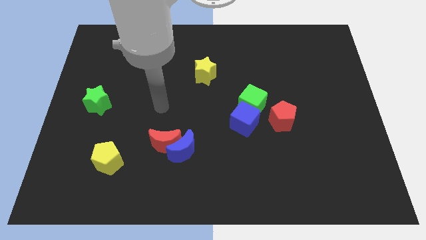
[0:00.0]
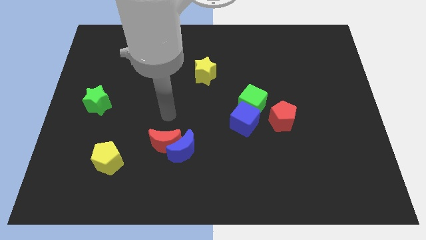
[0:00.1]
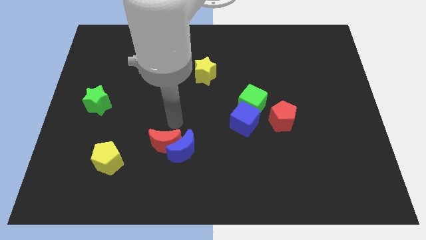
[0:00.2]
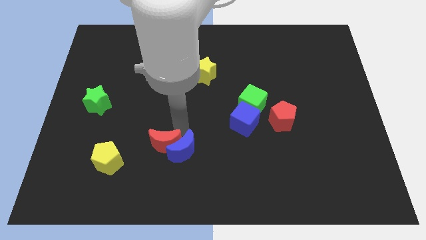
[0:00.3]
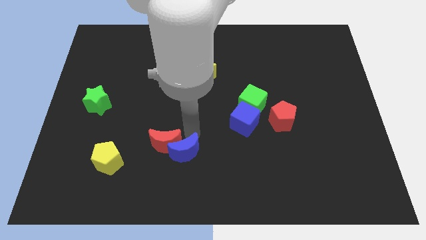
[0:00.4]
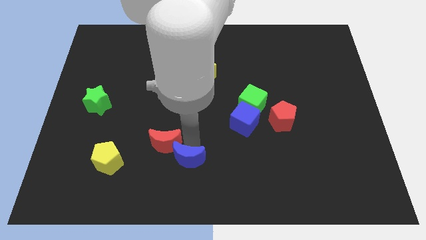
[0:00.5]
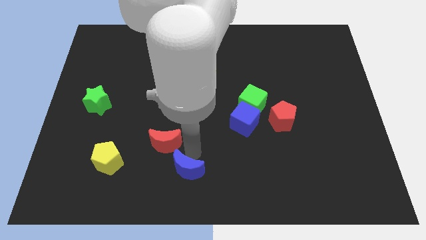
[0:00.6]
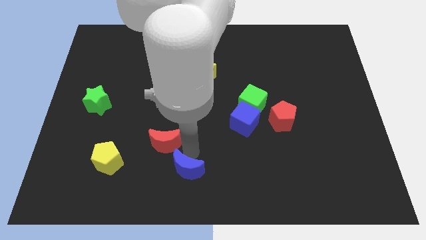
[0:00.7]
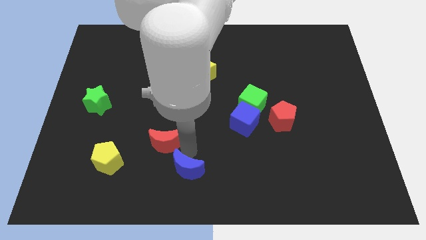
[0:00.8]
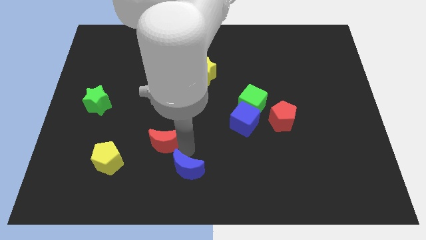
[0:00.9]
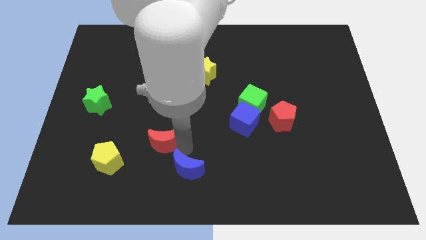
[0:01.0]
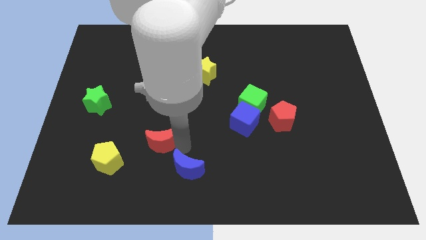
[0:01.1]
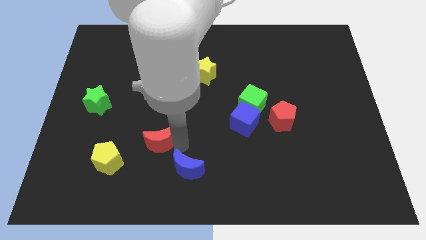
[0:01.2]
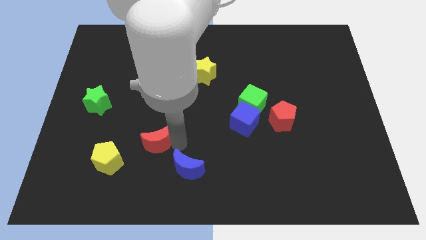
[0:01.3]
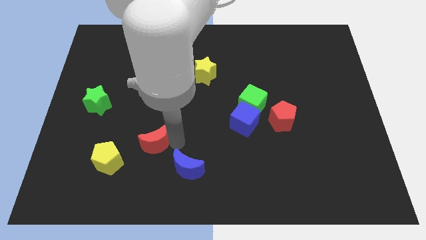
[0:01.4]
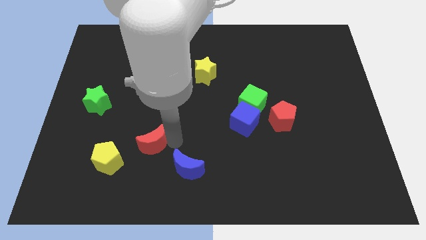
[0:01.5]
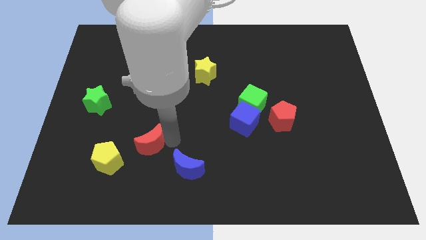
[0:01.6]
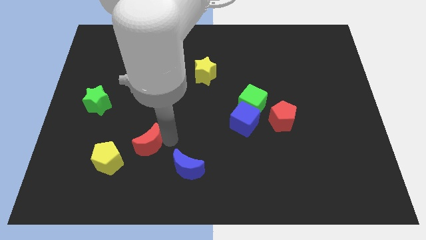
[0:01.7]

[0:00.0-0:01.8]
move the red moon away from the blue moon

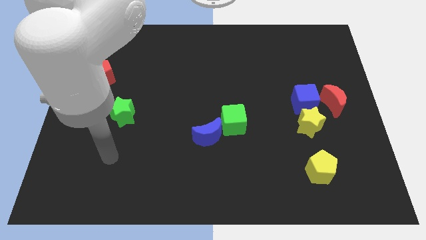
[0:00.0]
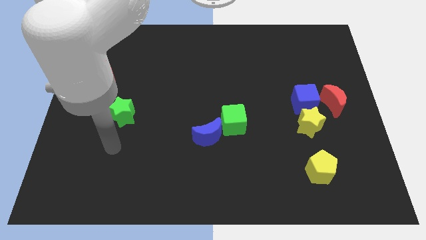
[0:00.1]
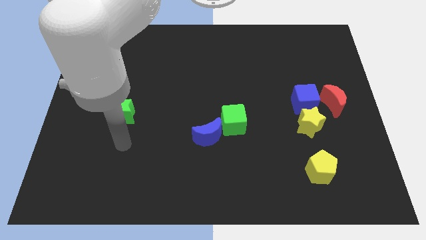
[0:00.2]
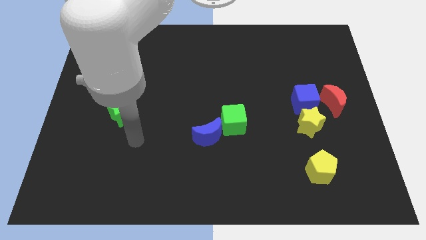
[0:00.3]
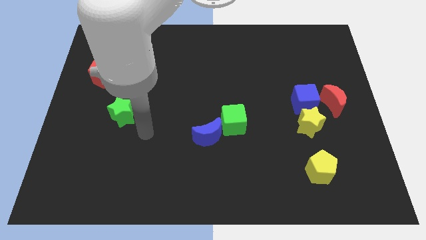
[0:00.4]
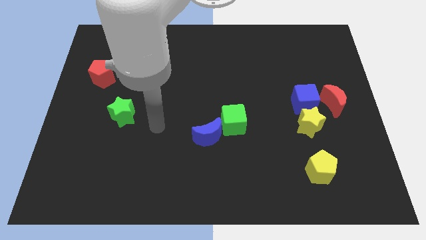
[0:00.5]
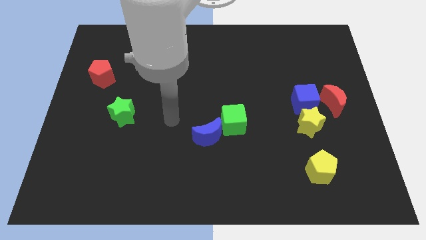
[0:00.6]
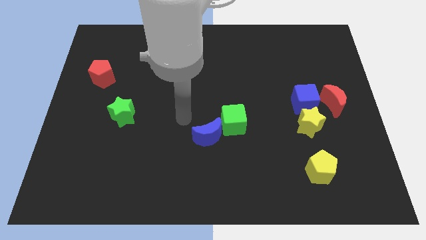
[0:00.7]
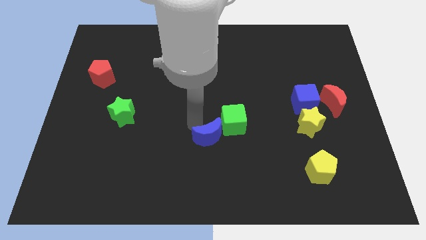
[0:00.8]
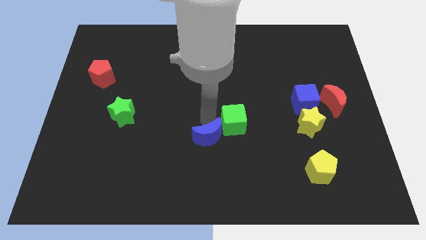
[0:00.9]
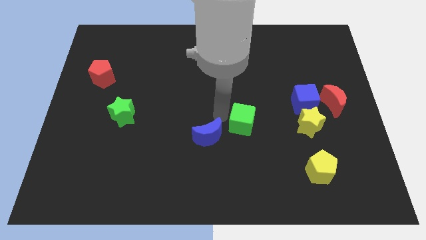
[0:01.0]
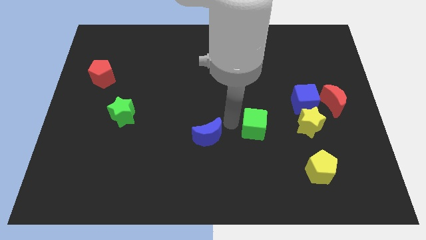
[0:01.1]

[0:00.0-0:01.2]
move the blue moon away from the green cube

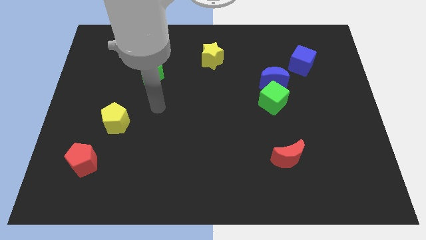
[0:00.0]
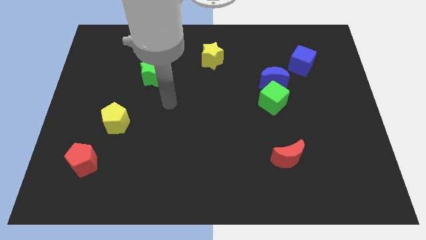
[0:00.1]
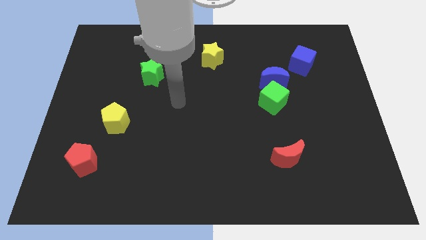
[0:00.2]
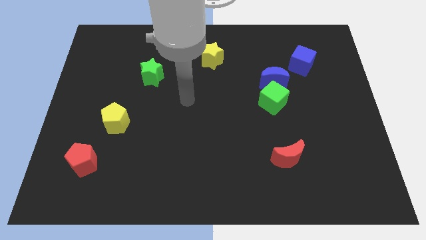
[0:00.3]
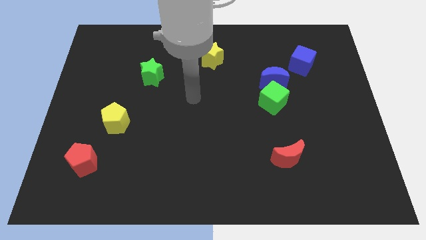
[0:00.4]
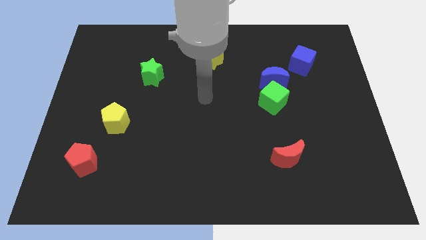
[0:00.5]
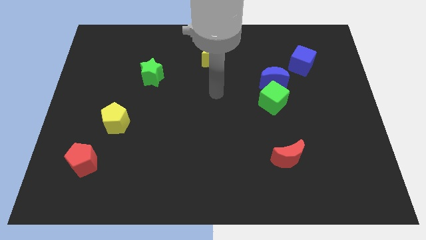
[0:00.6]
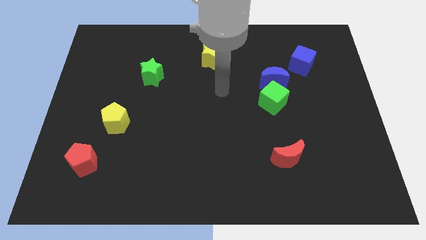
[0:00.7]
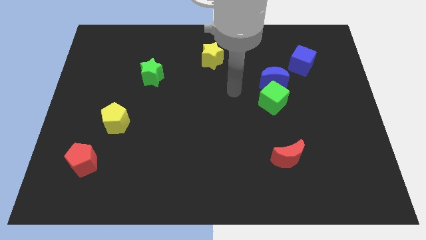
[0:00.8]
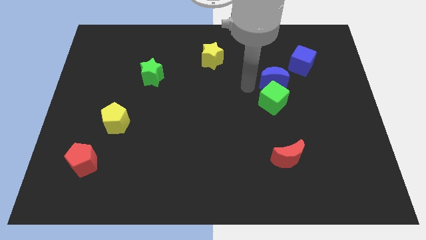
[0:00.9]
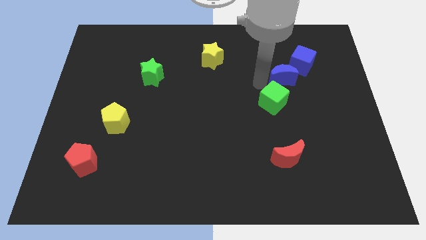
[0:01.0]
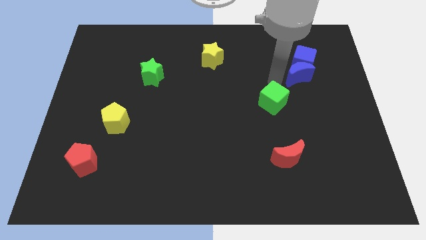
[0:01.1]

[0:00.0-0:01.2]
pull the green cube apart from the blue moon

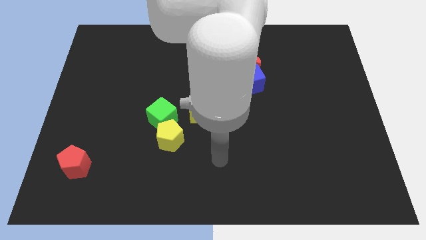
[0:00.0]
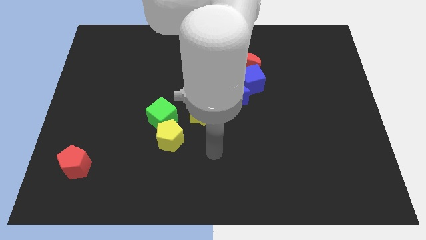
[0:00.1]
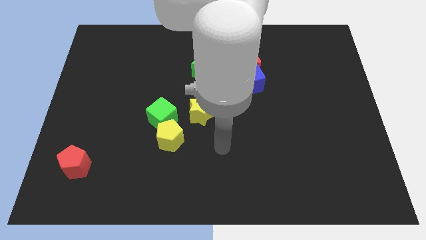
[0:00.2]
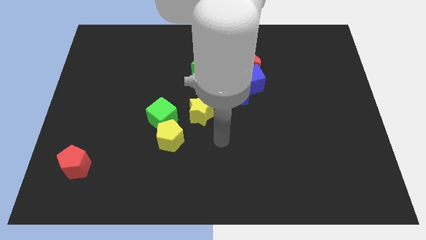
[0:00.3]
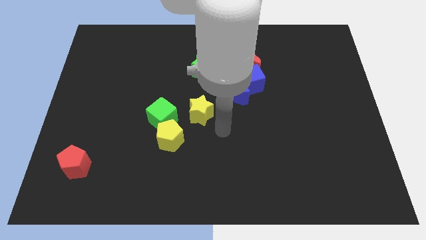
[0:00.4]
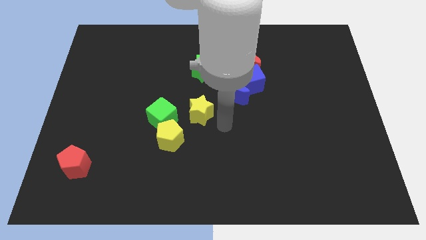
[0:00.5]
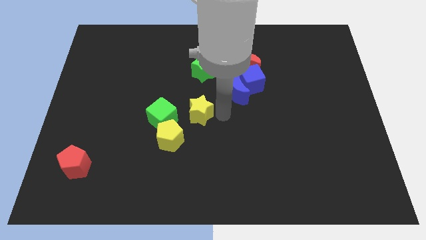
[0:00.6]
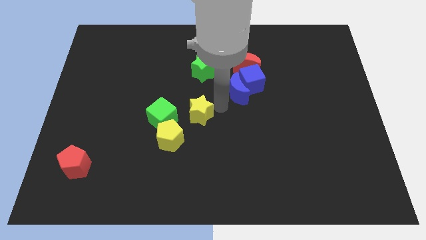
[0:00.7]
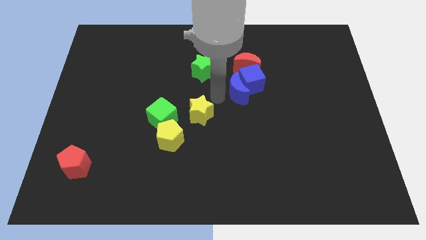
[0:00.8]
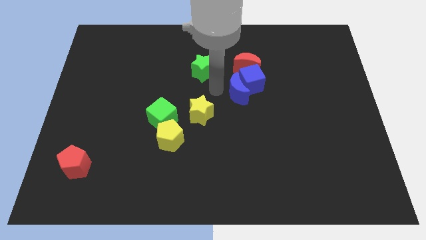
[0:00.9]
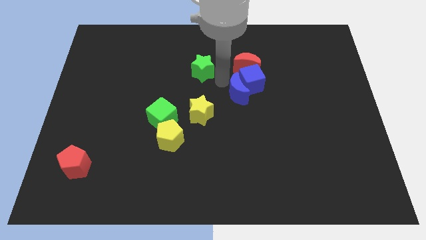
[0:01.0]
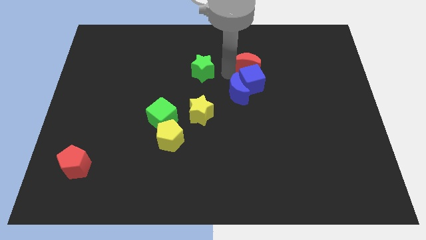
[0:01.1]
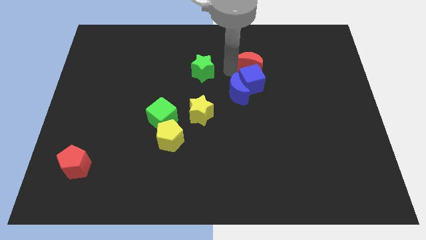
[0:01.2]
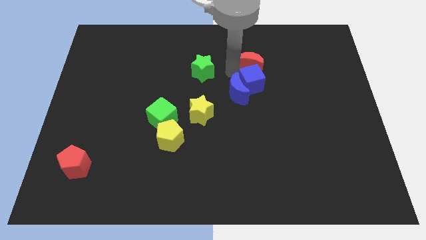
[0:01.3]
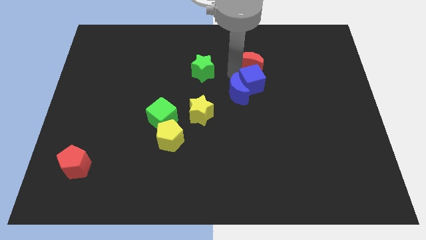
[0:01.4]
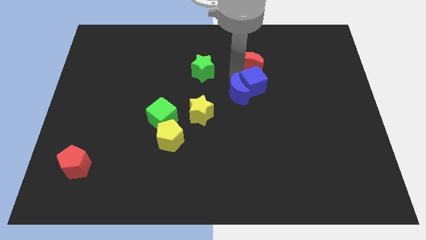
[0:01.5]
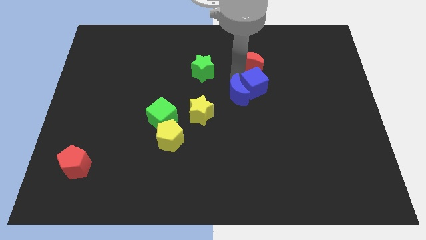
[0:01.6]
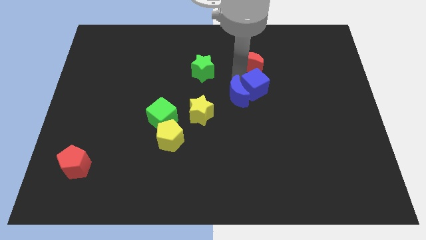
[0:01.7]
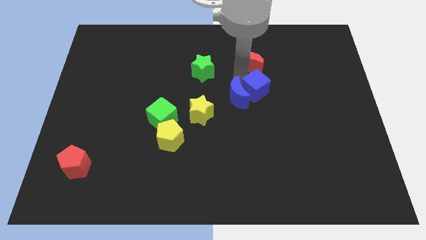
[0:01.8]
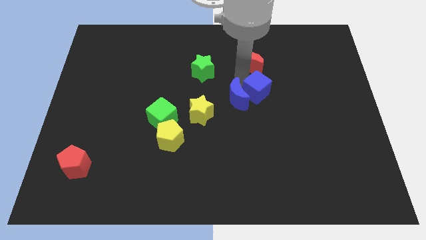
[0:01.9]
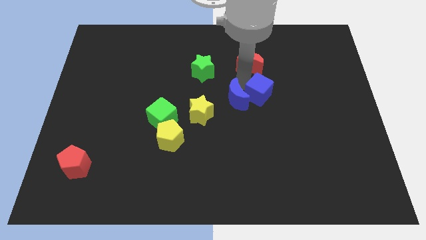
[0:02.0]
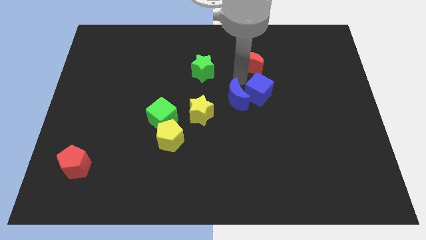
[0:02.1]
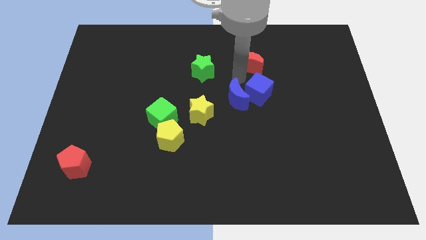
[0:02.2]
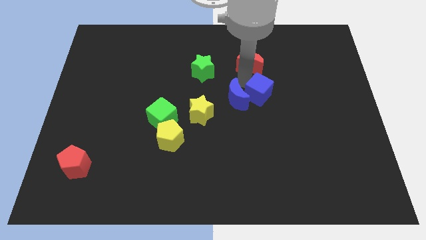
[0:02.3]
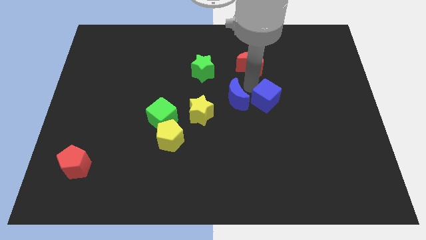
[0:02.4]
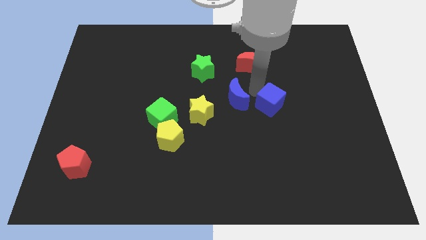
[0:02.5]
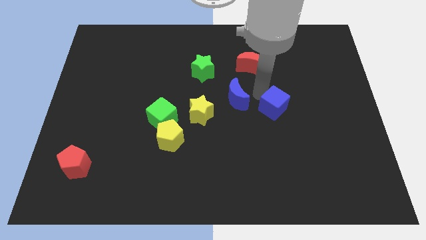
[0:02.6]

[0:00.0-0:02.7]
move the blue cube away from the blue moon and red moon

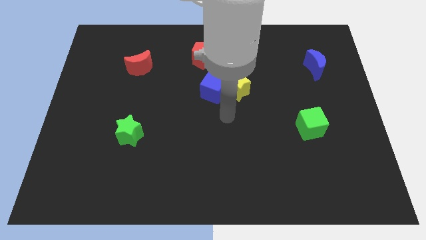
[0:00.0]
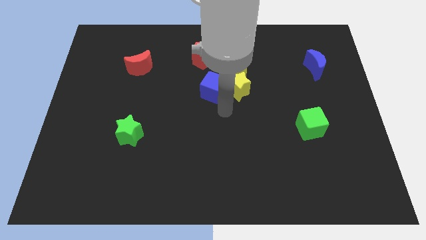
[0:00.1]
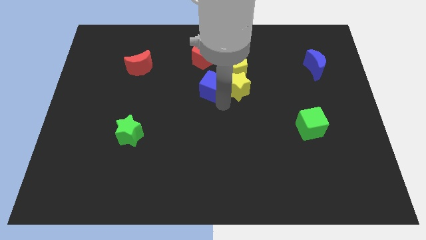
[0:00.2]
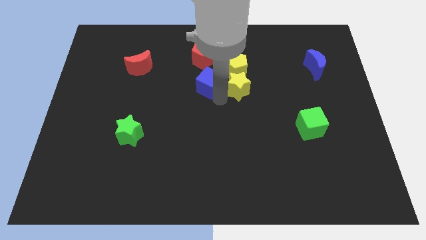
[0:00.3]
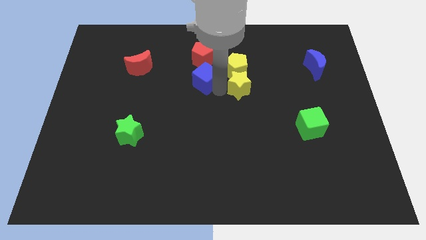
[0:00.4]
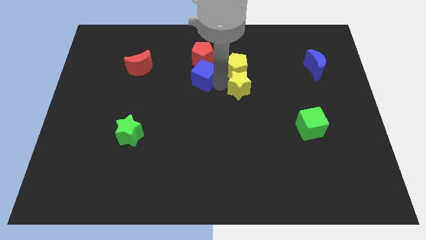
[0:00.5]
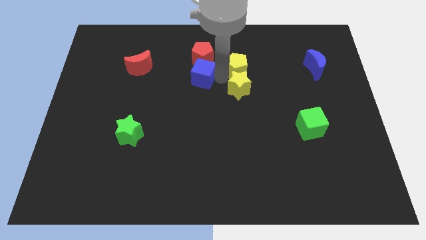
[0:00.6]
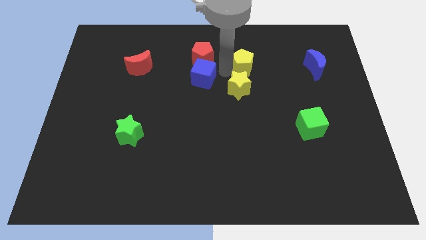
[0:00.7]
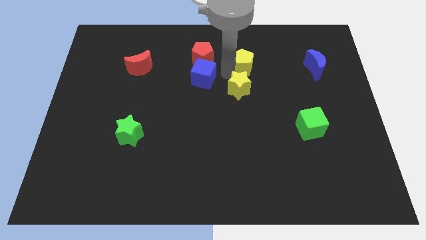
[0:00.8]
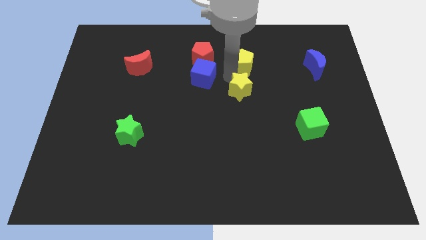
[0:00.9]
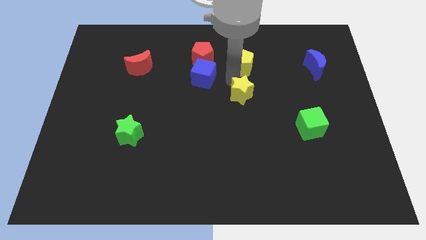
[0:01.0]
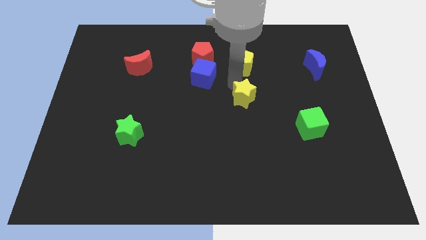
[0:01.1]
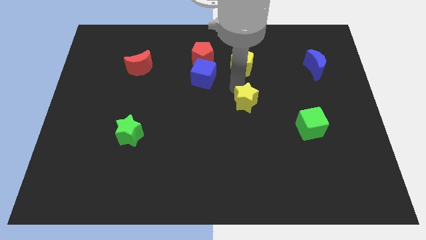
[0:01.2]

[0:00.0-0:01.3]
move the yellow star away from the blue cube and yellow pentagon

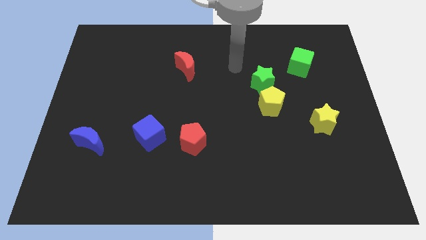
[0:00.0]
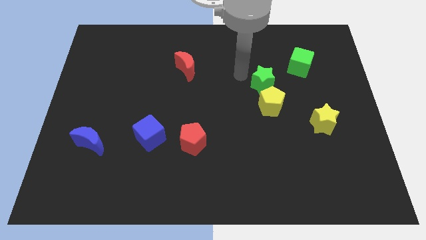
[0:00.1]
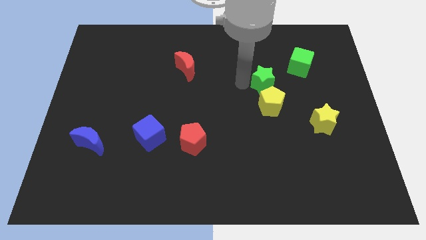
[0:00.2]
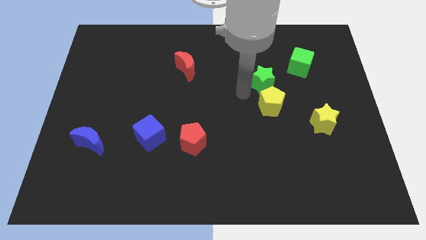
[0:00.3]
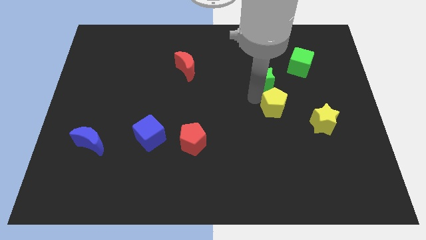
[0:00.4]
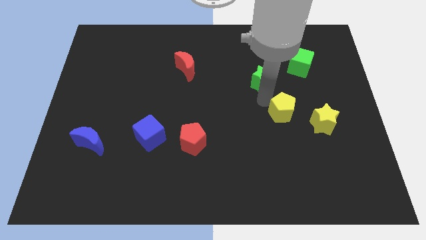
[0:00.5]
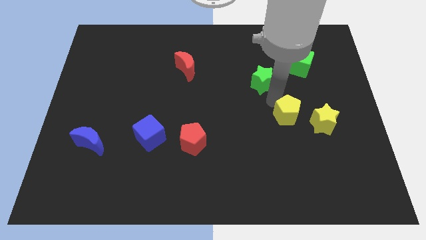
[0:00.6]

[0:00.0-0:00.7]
separate the green star from the yellow pentagon

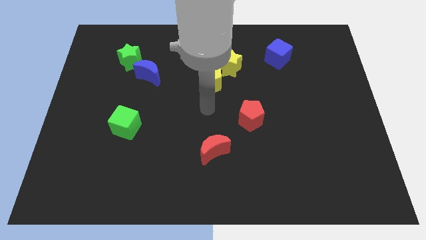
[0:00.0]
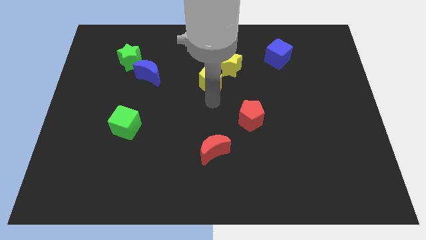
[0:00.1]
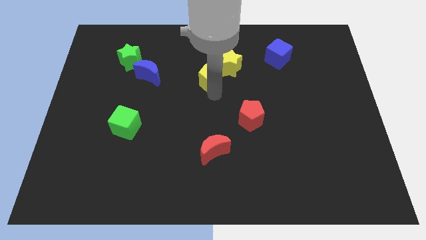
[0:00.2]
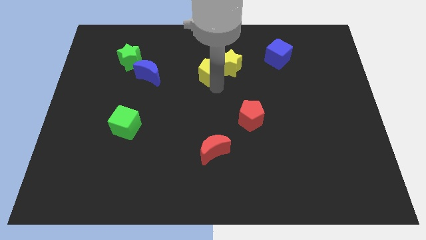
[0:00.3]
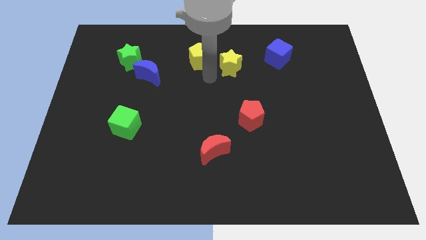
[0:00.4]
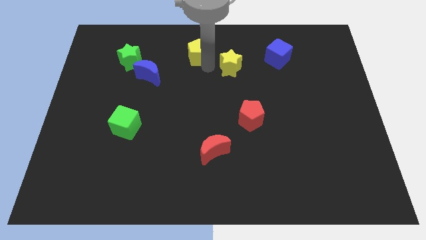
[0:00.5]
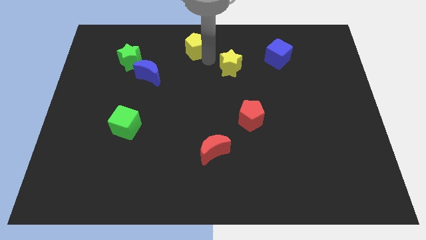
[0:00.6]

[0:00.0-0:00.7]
separate the yellow star from the yellow pentagon
